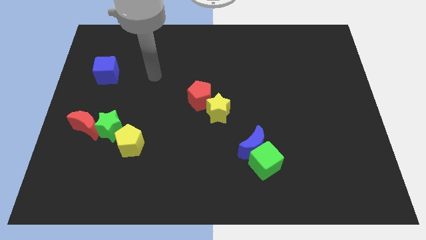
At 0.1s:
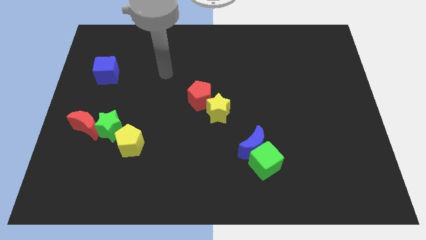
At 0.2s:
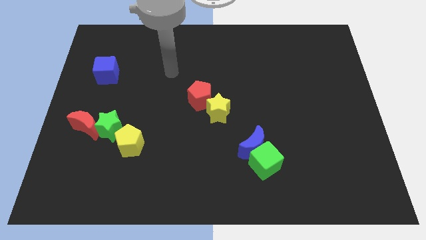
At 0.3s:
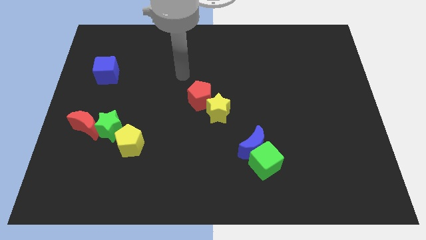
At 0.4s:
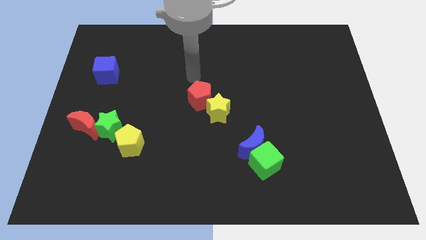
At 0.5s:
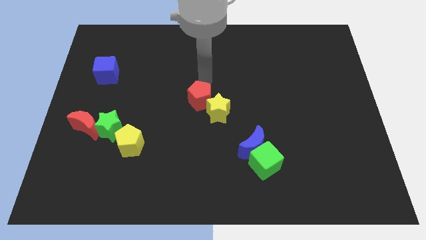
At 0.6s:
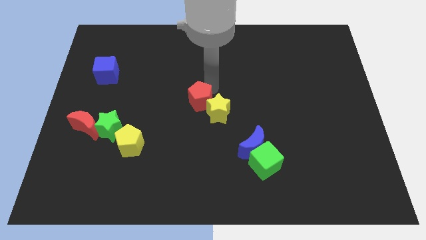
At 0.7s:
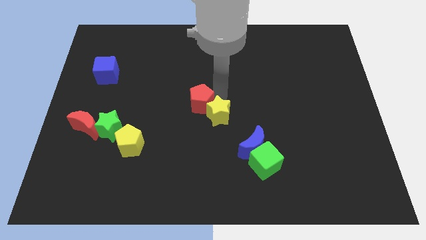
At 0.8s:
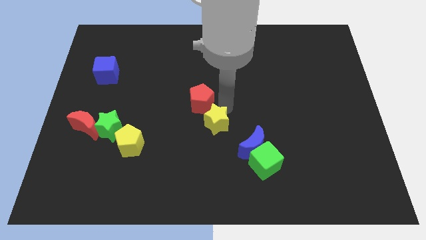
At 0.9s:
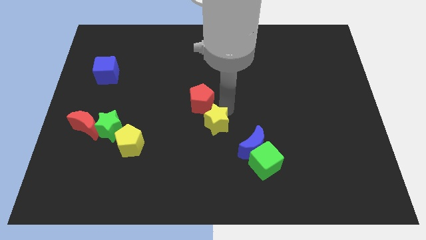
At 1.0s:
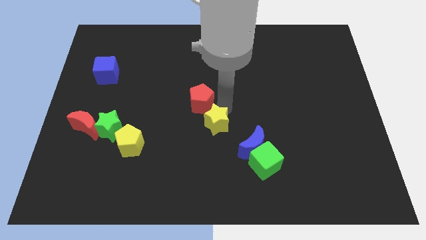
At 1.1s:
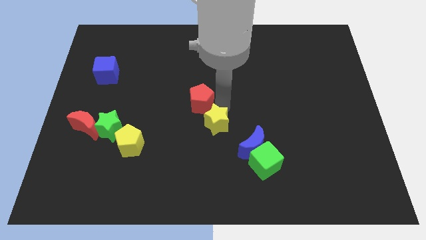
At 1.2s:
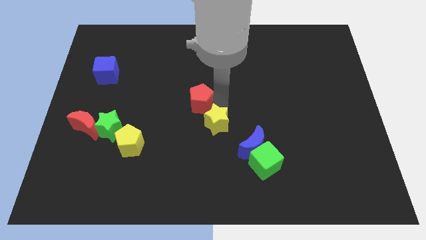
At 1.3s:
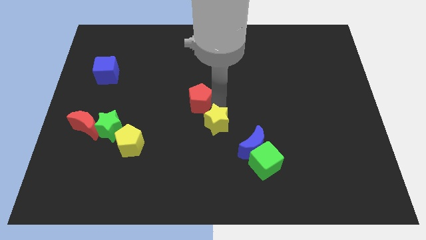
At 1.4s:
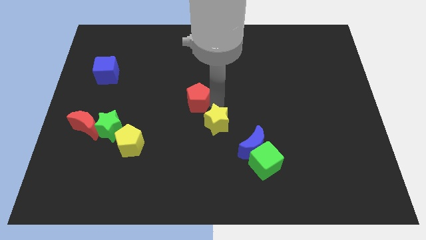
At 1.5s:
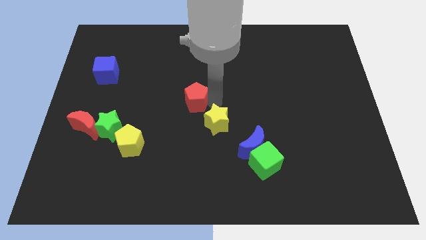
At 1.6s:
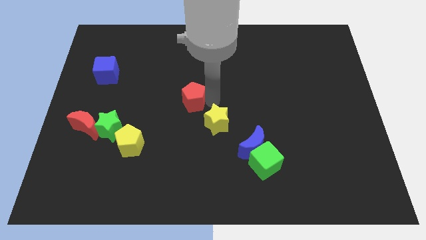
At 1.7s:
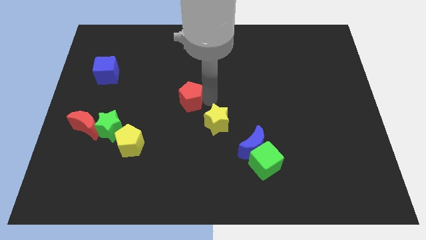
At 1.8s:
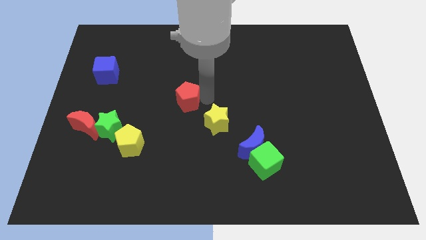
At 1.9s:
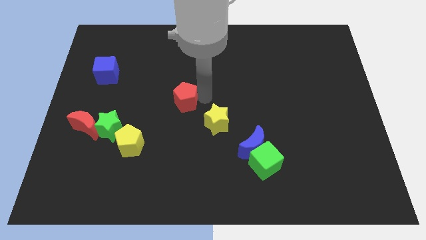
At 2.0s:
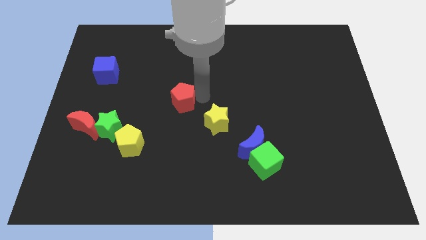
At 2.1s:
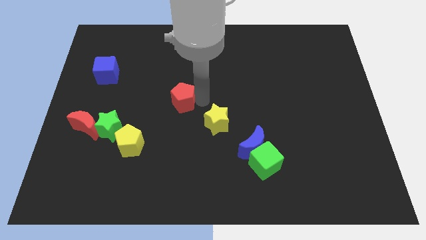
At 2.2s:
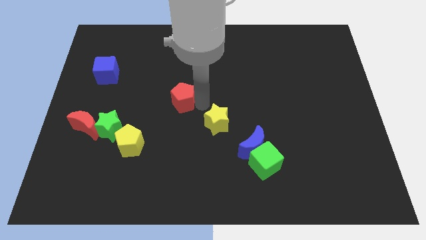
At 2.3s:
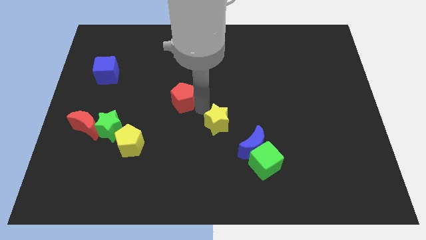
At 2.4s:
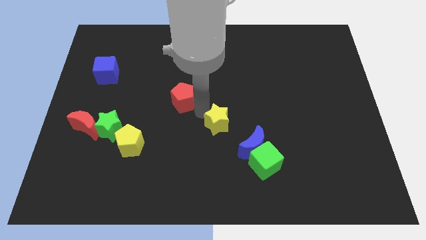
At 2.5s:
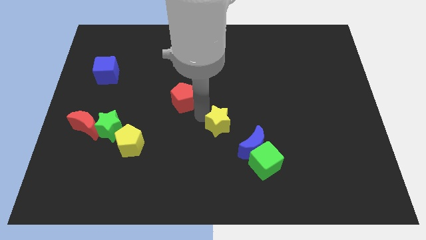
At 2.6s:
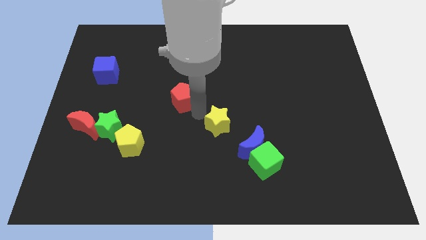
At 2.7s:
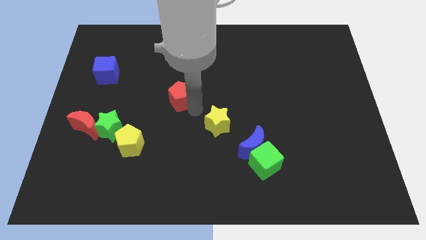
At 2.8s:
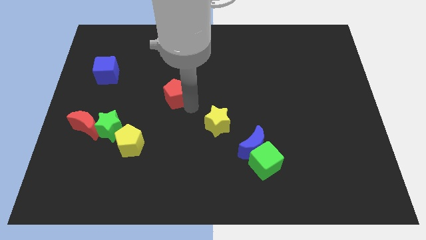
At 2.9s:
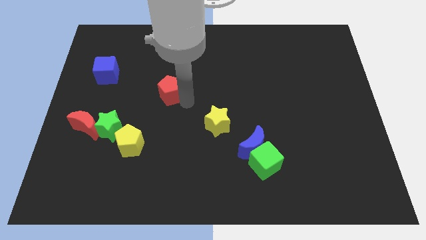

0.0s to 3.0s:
slide the red pentagon a little left

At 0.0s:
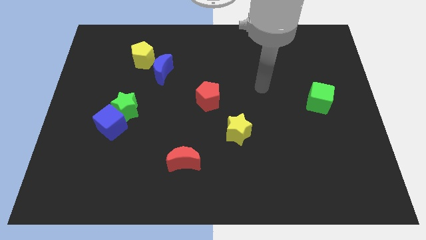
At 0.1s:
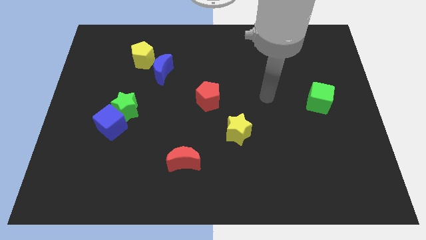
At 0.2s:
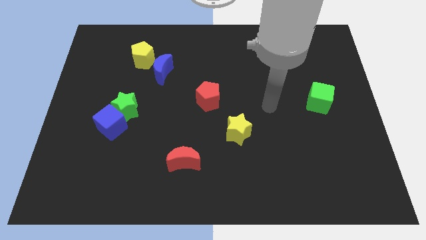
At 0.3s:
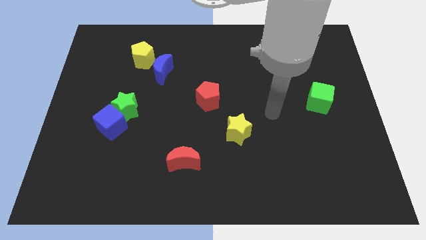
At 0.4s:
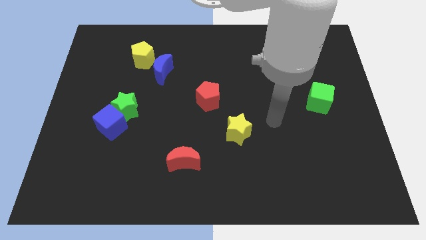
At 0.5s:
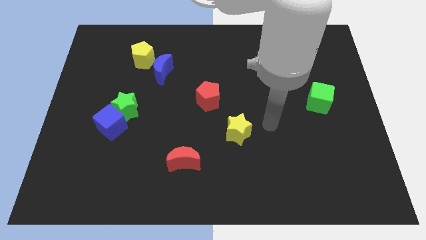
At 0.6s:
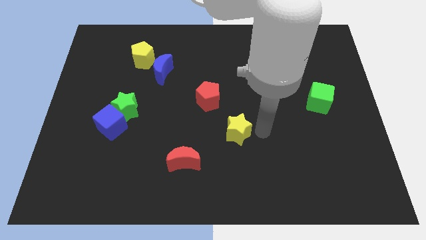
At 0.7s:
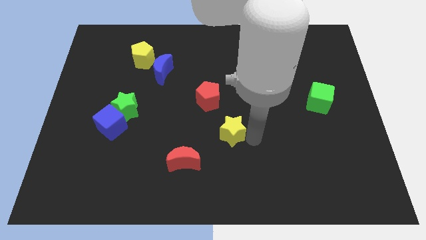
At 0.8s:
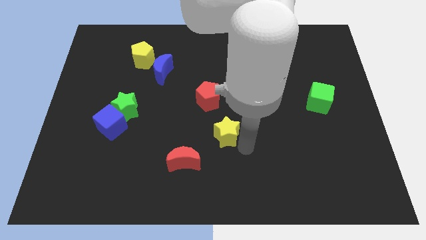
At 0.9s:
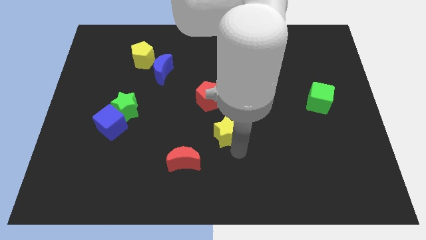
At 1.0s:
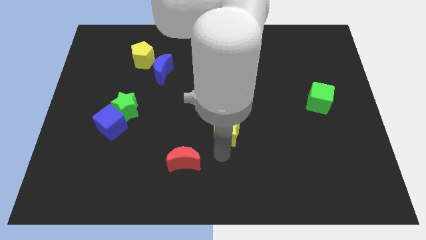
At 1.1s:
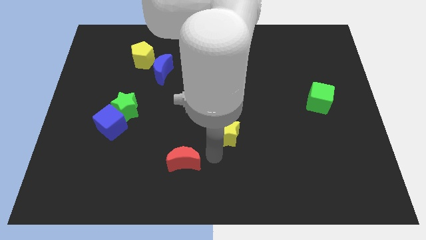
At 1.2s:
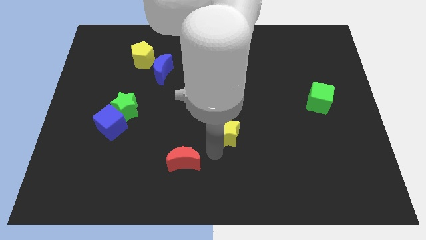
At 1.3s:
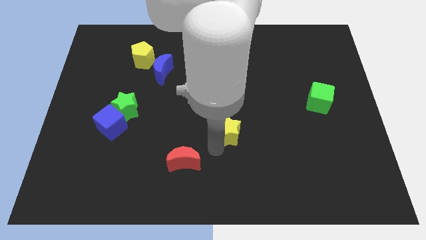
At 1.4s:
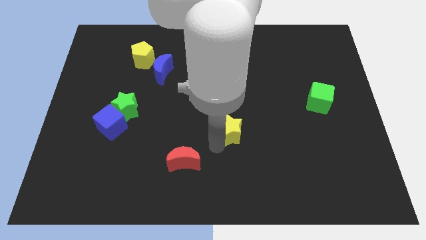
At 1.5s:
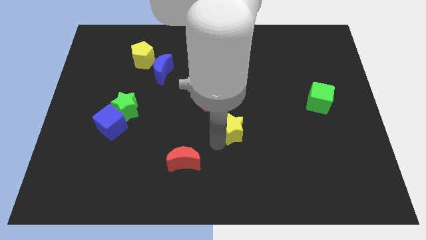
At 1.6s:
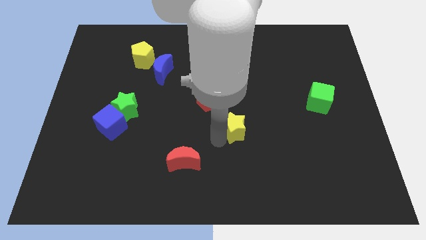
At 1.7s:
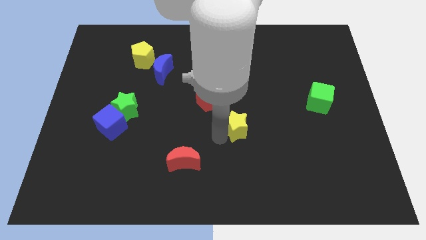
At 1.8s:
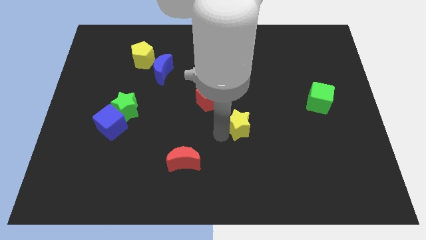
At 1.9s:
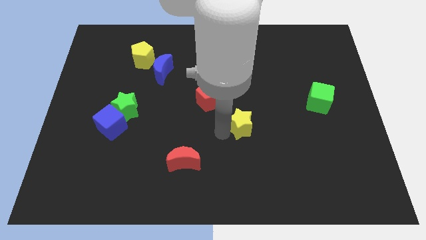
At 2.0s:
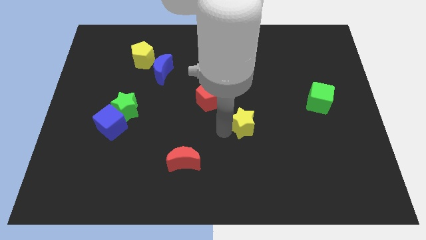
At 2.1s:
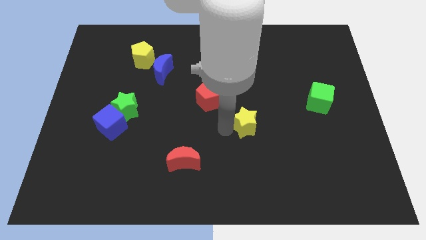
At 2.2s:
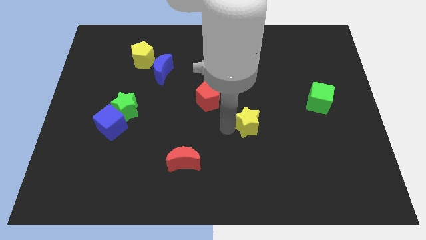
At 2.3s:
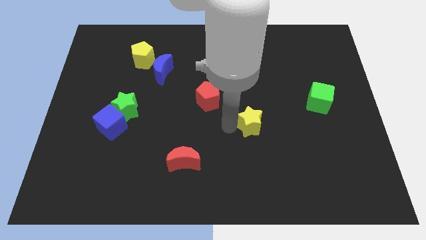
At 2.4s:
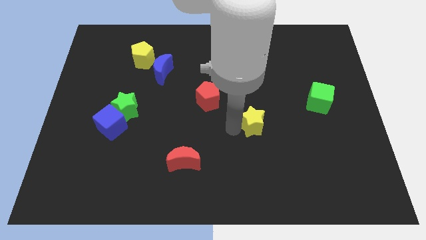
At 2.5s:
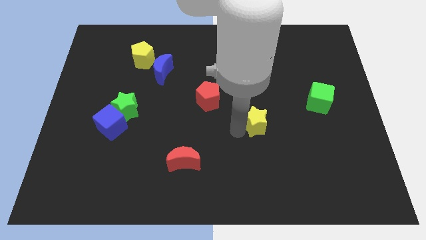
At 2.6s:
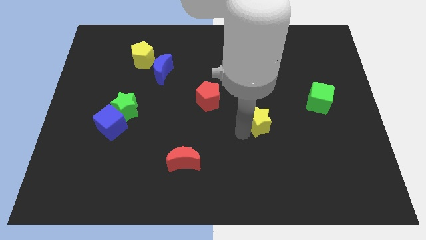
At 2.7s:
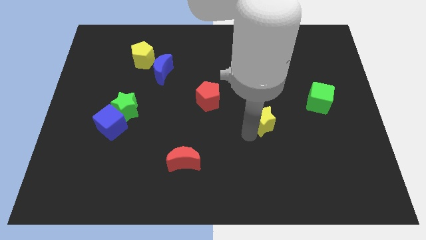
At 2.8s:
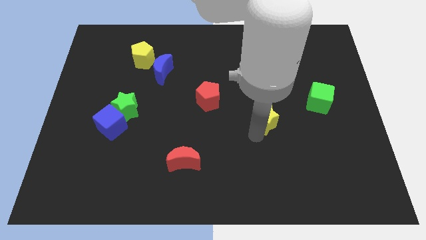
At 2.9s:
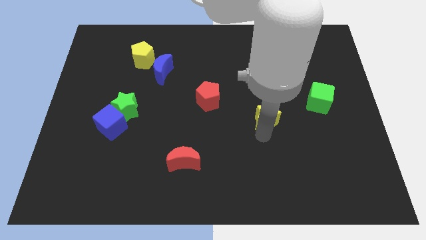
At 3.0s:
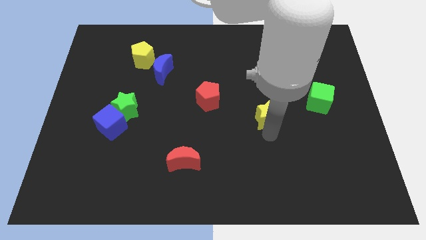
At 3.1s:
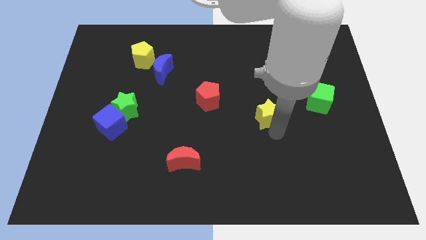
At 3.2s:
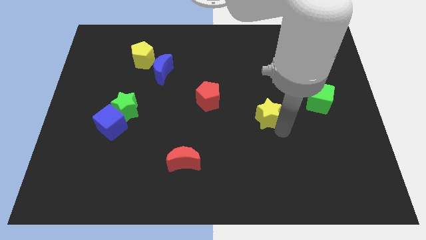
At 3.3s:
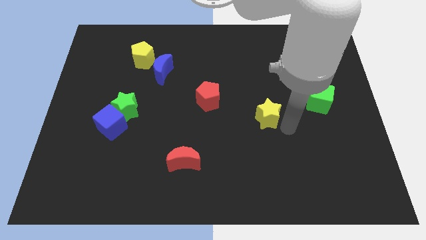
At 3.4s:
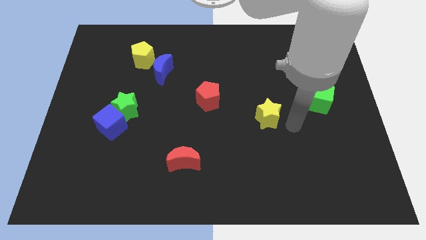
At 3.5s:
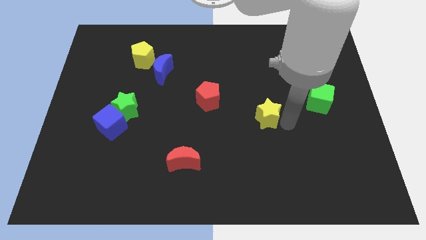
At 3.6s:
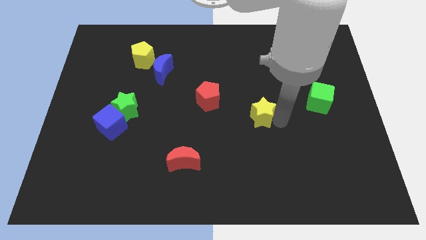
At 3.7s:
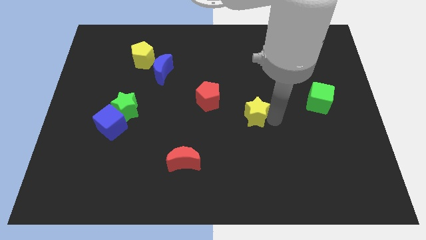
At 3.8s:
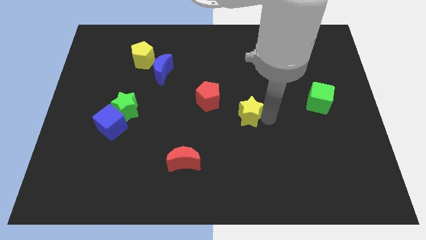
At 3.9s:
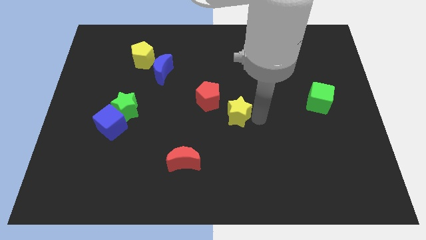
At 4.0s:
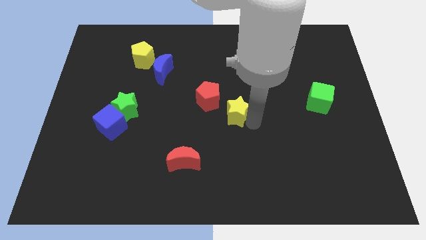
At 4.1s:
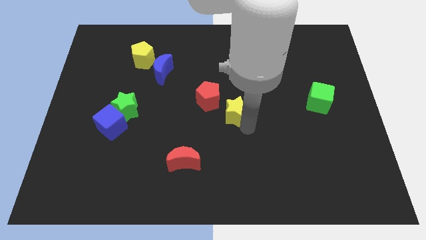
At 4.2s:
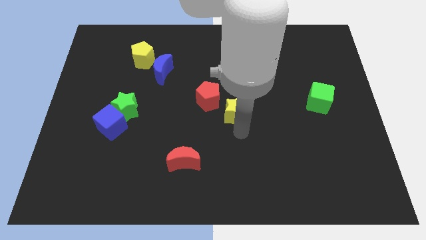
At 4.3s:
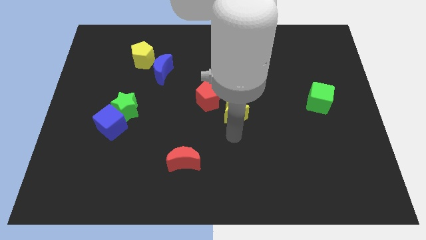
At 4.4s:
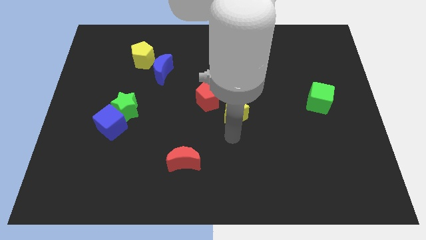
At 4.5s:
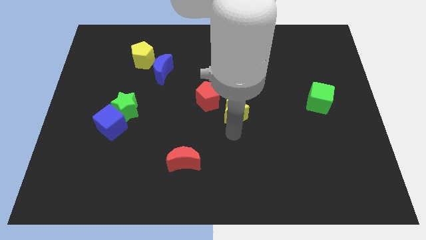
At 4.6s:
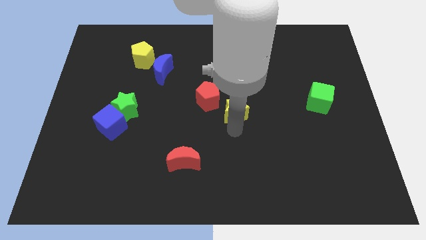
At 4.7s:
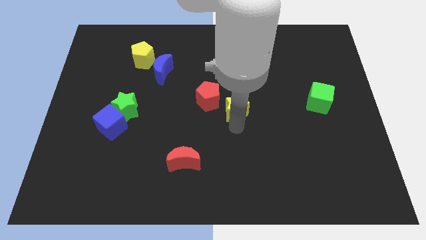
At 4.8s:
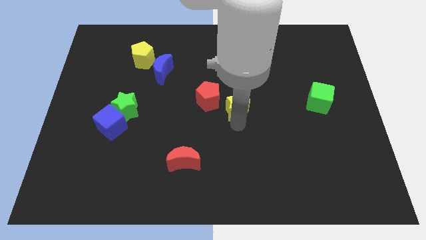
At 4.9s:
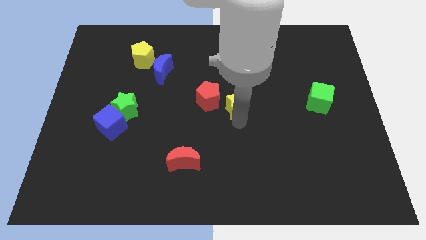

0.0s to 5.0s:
slide the yellow star a bit upwards

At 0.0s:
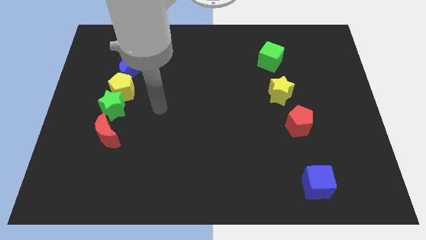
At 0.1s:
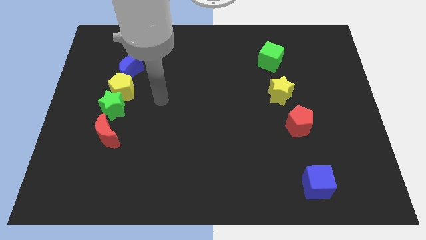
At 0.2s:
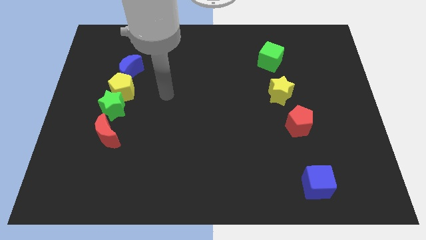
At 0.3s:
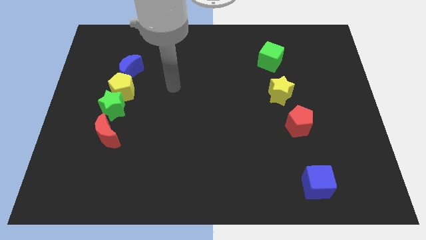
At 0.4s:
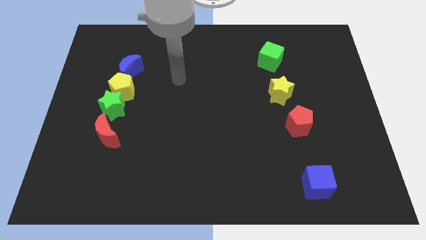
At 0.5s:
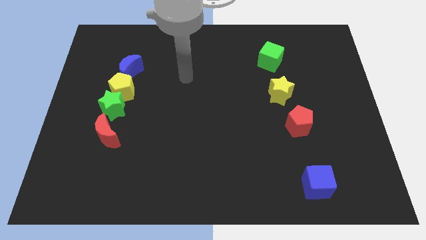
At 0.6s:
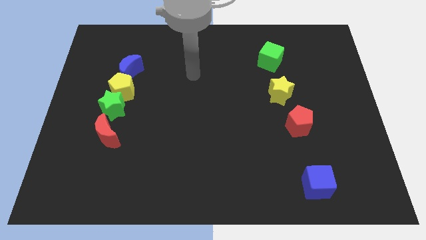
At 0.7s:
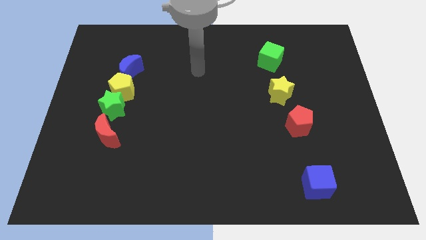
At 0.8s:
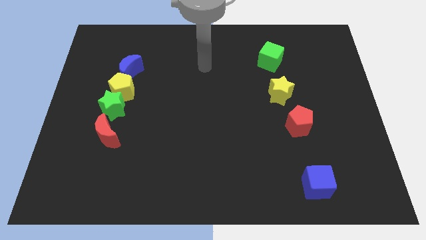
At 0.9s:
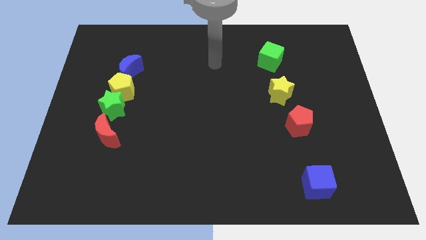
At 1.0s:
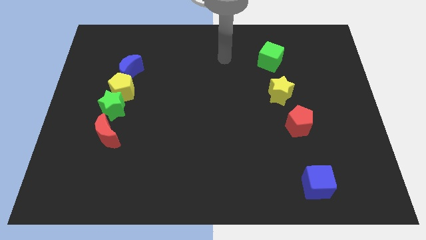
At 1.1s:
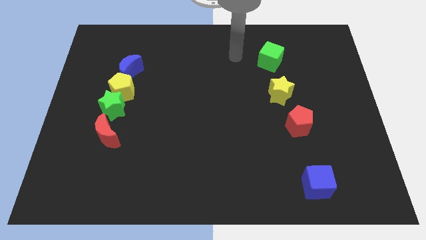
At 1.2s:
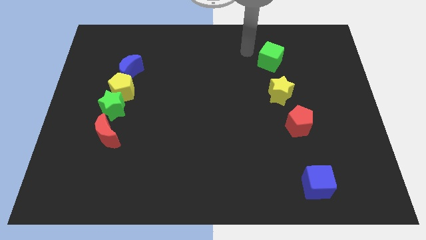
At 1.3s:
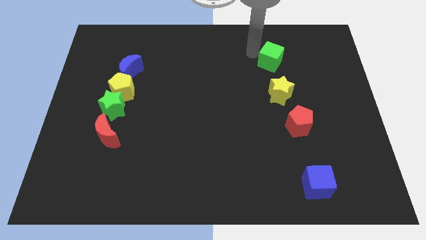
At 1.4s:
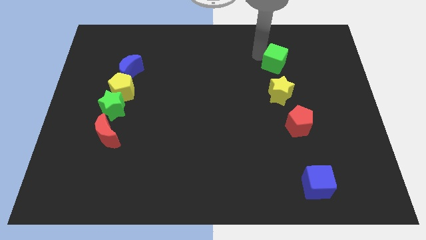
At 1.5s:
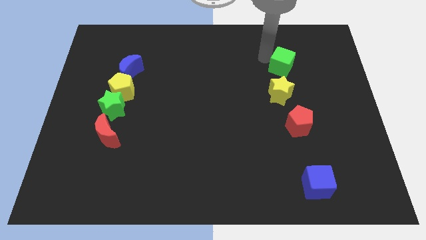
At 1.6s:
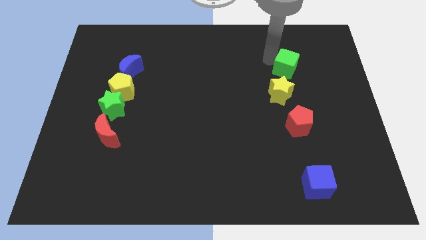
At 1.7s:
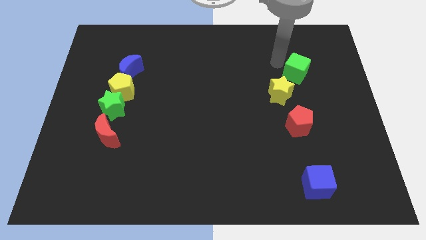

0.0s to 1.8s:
push the green cube down and to the right somewhat
